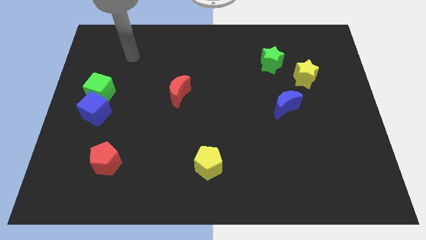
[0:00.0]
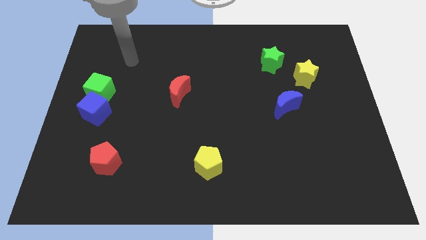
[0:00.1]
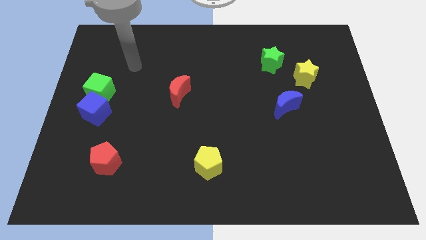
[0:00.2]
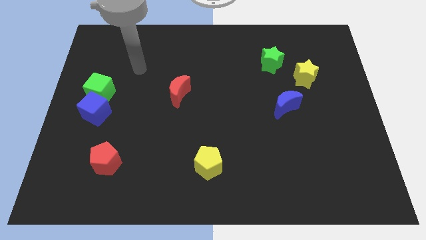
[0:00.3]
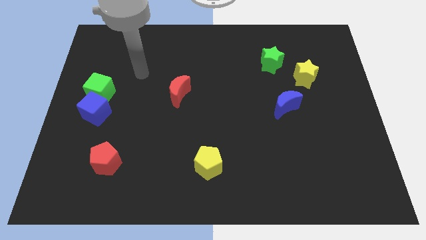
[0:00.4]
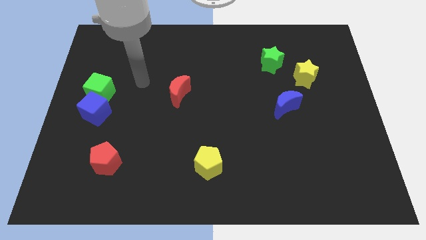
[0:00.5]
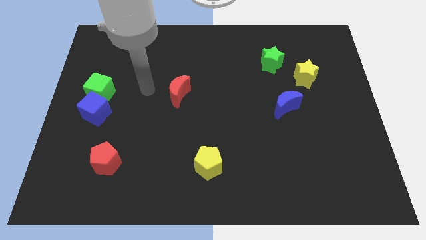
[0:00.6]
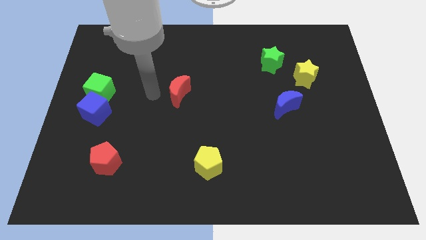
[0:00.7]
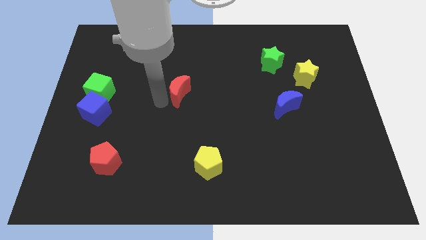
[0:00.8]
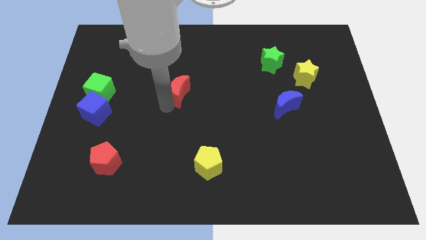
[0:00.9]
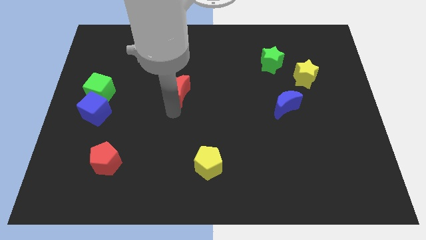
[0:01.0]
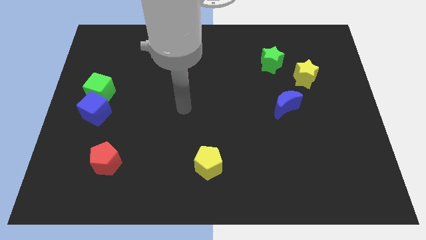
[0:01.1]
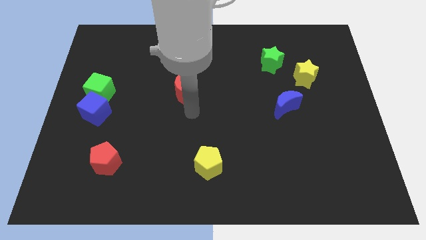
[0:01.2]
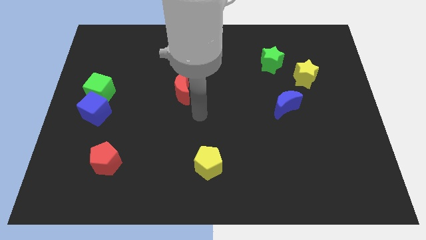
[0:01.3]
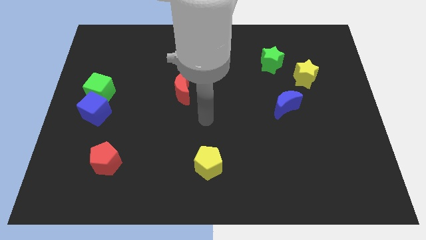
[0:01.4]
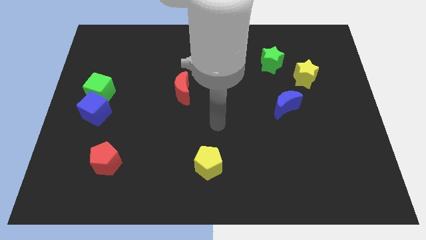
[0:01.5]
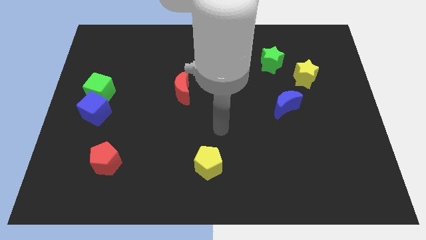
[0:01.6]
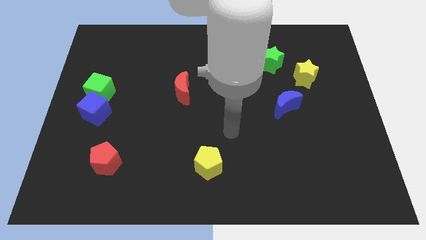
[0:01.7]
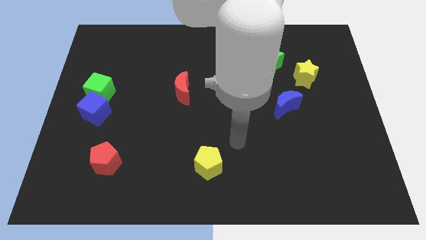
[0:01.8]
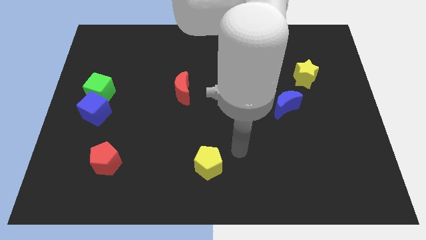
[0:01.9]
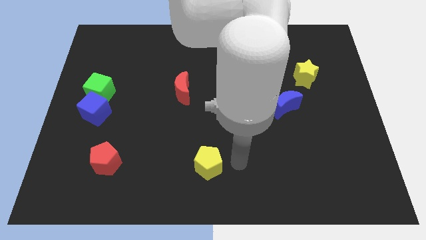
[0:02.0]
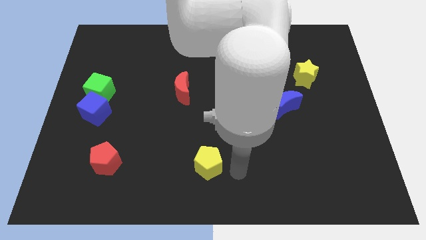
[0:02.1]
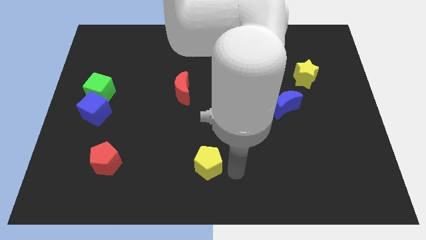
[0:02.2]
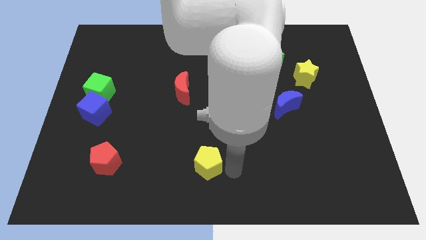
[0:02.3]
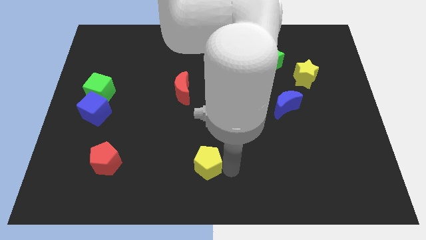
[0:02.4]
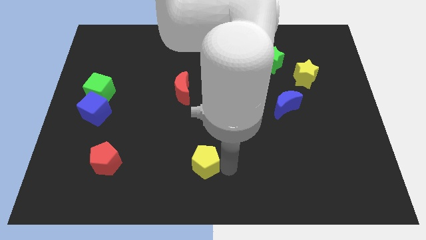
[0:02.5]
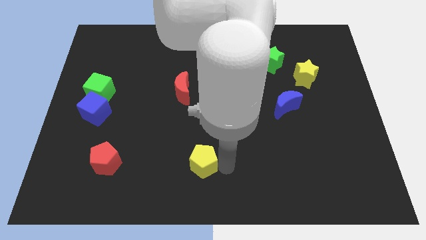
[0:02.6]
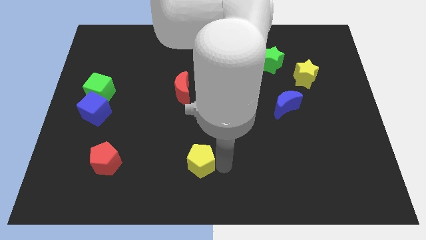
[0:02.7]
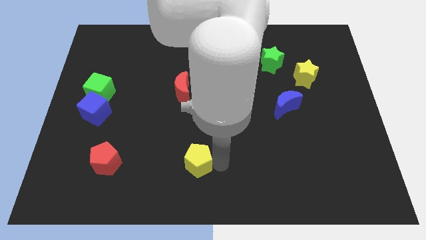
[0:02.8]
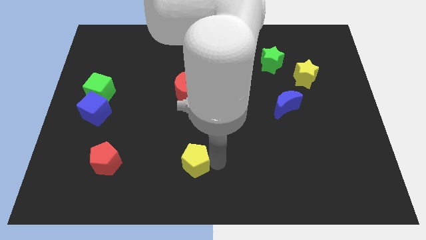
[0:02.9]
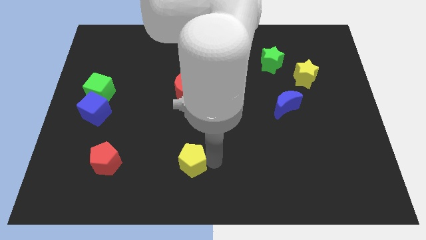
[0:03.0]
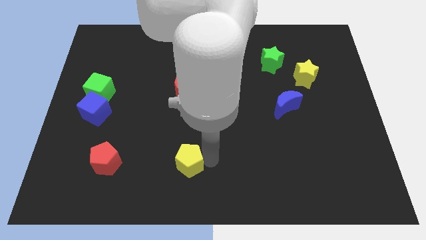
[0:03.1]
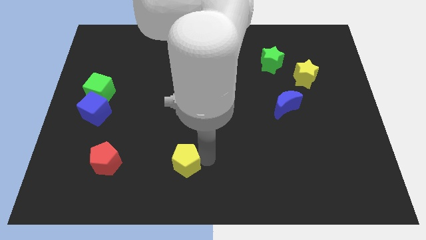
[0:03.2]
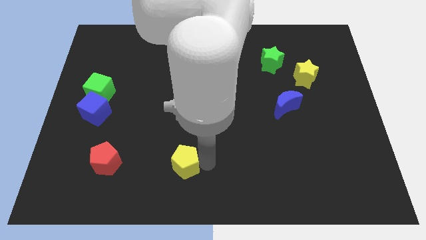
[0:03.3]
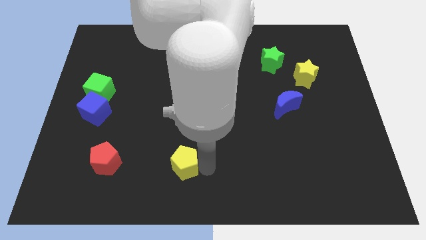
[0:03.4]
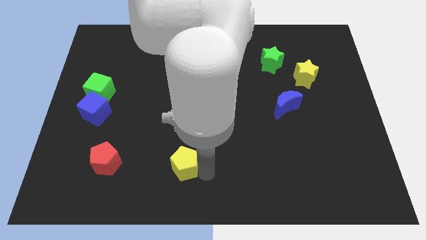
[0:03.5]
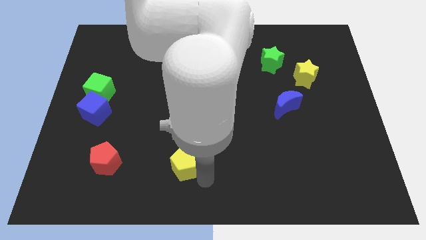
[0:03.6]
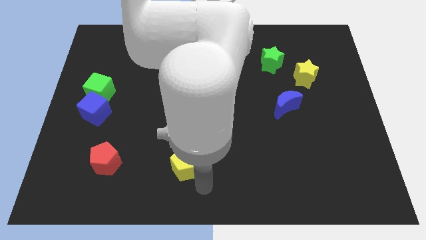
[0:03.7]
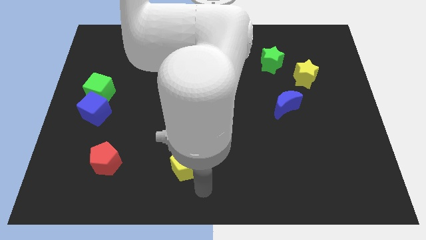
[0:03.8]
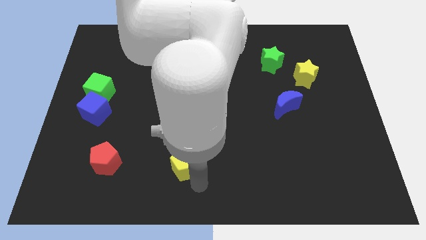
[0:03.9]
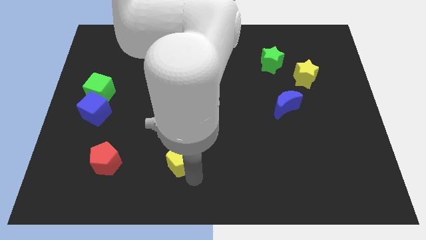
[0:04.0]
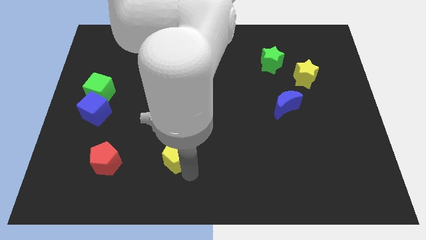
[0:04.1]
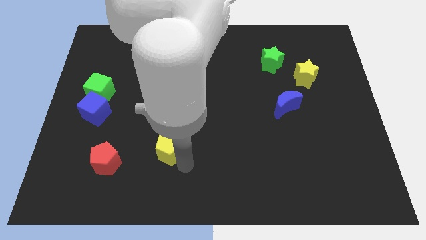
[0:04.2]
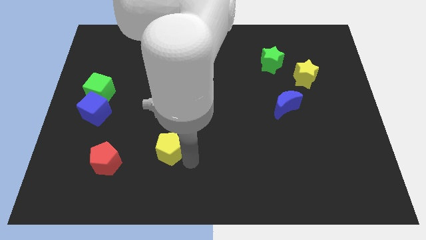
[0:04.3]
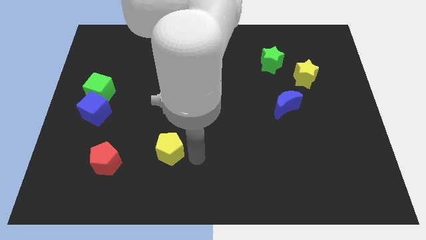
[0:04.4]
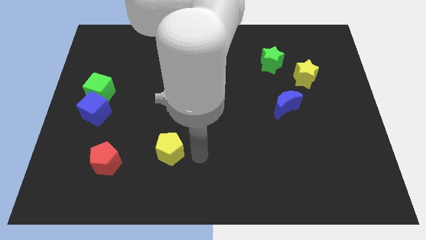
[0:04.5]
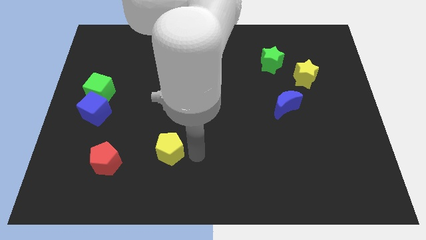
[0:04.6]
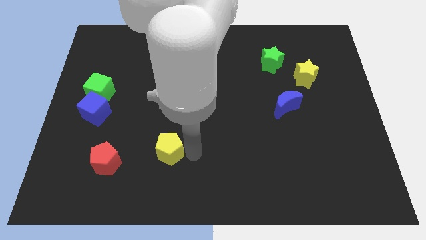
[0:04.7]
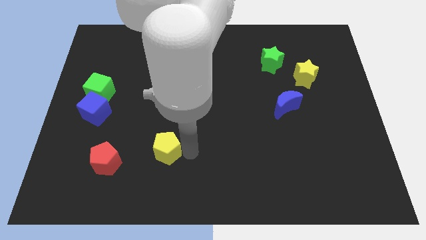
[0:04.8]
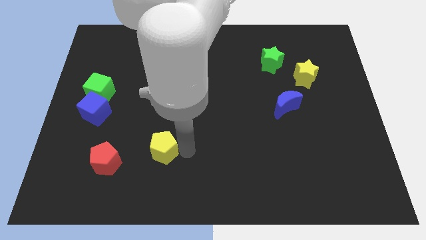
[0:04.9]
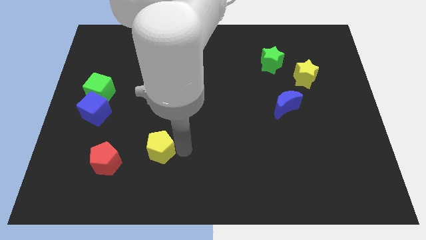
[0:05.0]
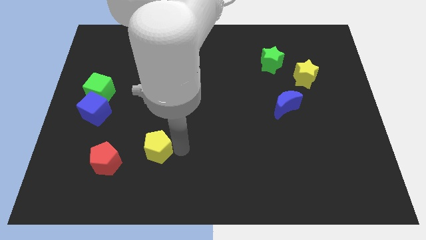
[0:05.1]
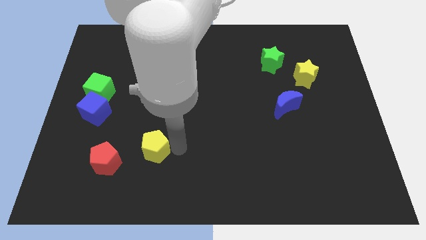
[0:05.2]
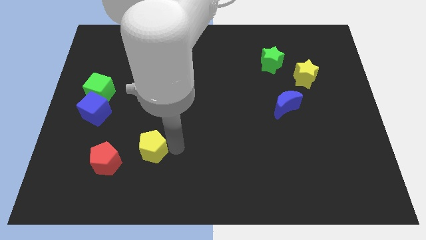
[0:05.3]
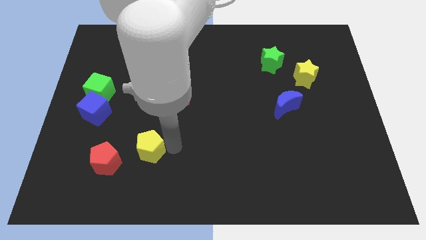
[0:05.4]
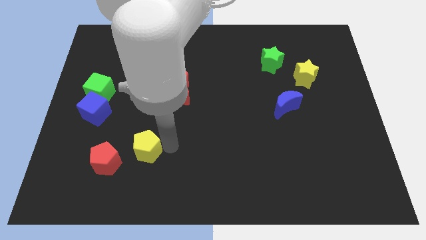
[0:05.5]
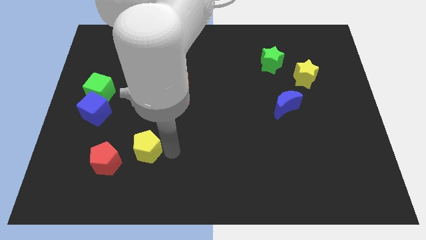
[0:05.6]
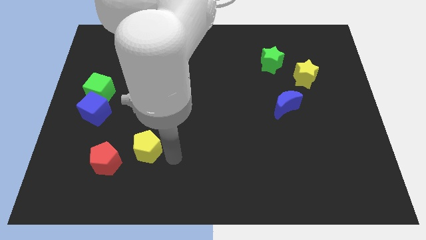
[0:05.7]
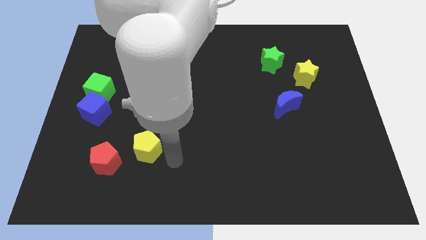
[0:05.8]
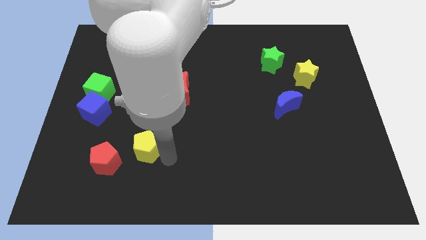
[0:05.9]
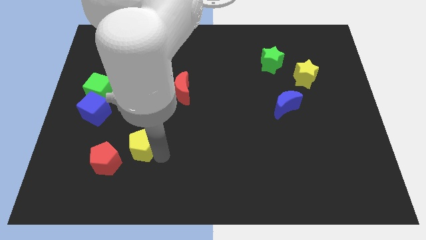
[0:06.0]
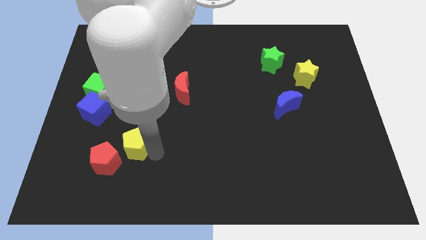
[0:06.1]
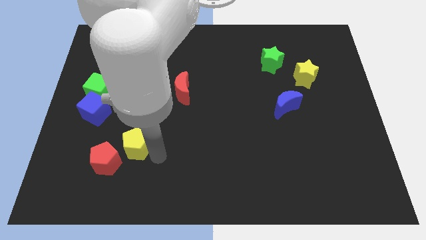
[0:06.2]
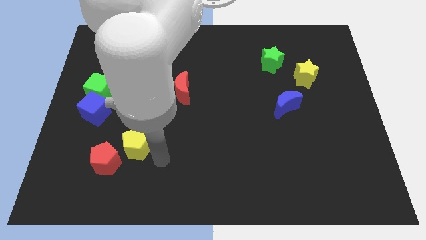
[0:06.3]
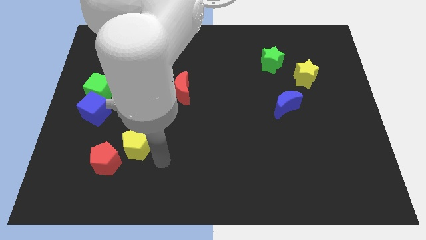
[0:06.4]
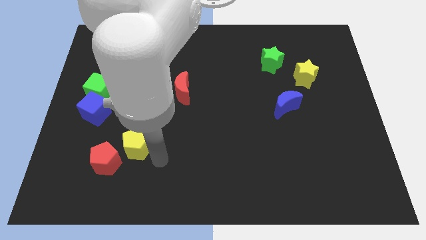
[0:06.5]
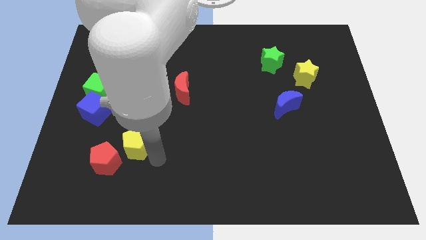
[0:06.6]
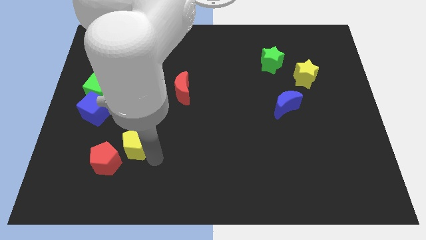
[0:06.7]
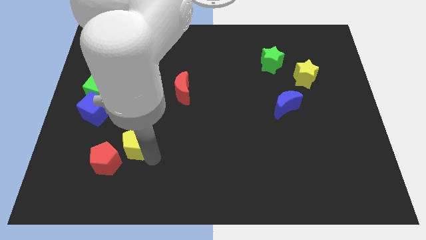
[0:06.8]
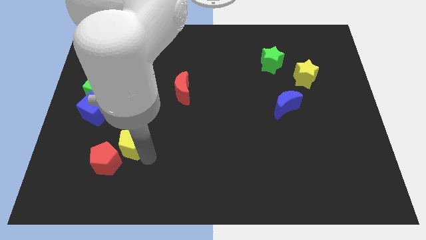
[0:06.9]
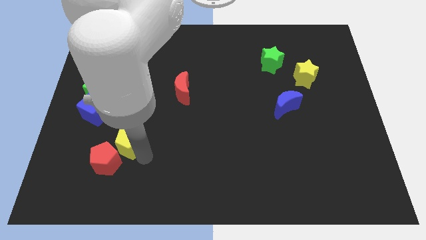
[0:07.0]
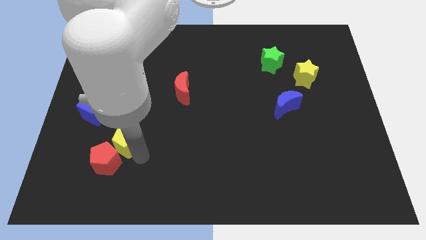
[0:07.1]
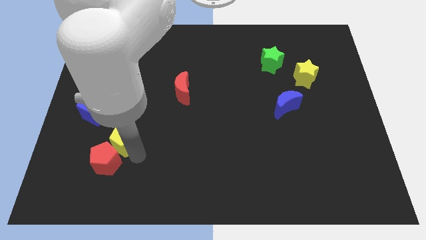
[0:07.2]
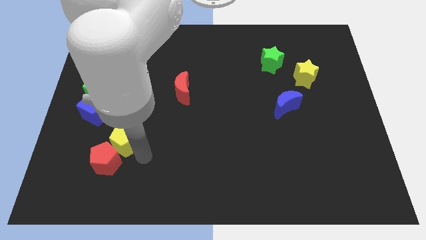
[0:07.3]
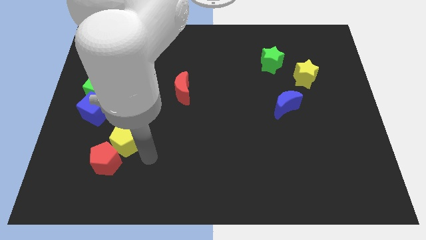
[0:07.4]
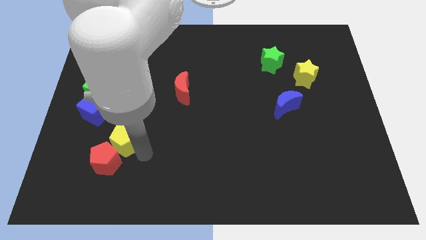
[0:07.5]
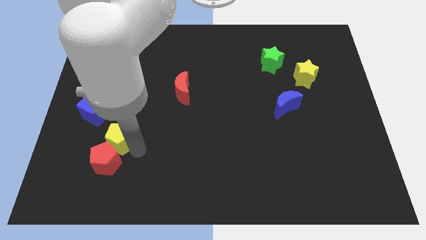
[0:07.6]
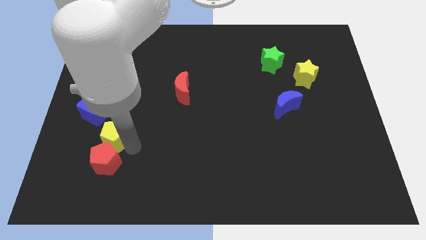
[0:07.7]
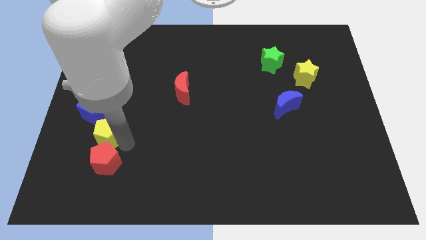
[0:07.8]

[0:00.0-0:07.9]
push the yellow pentagon to the bottom side of the green cube
